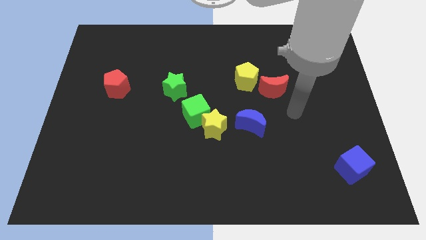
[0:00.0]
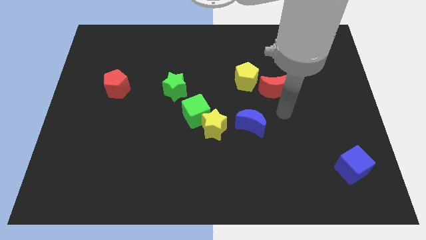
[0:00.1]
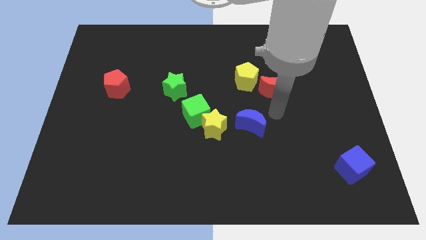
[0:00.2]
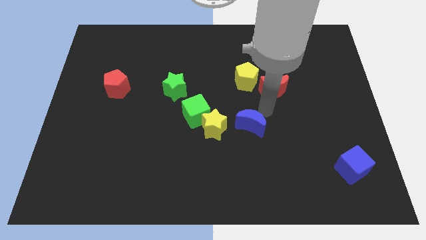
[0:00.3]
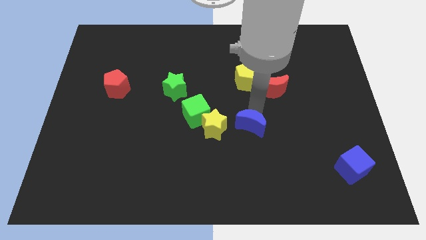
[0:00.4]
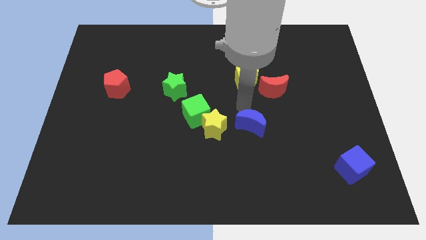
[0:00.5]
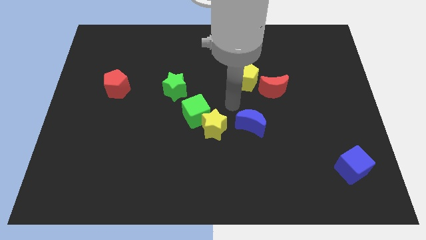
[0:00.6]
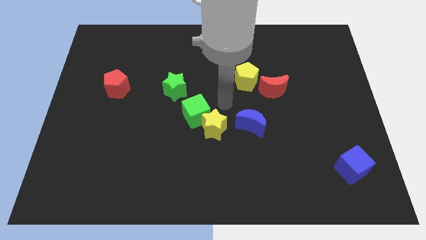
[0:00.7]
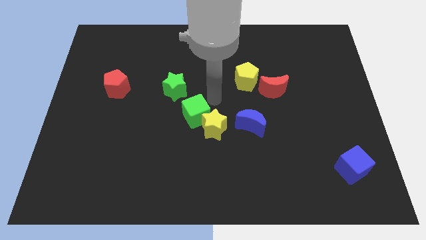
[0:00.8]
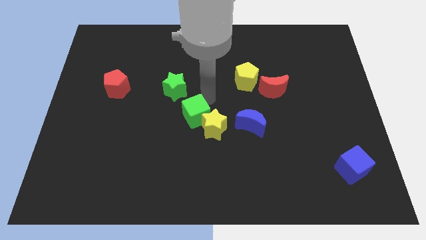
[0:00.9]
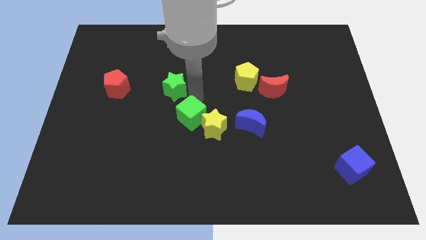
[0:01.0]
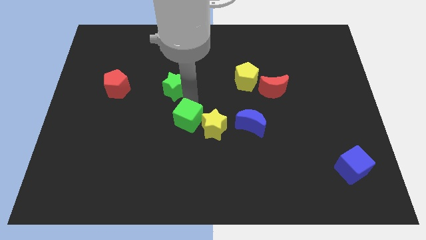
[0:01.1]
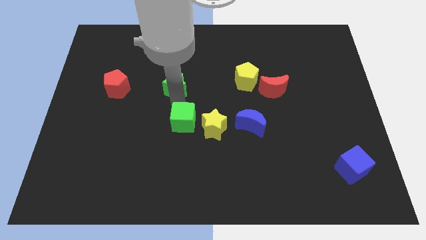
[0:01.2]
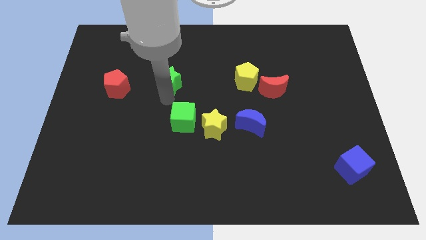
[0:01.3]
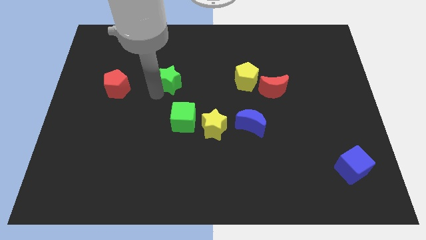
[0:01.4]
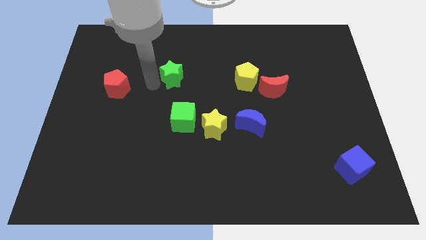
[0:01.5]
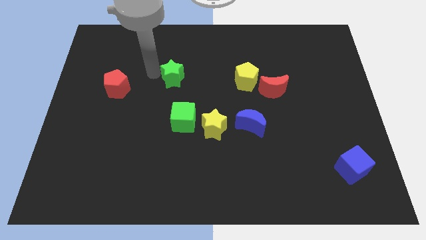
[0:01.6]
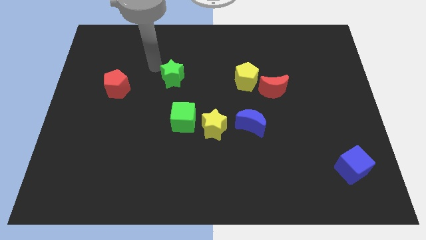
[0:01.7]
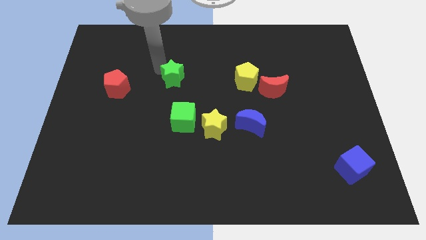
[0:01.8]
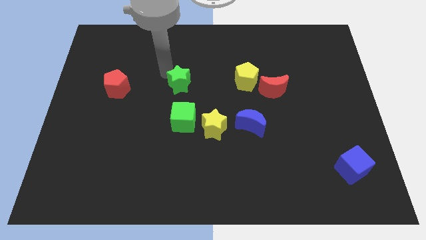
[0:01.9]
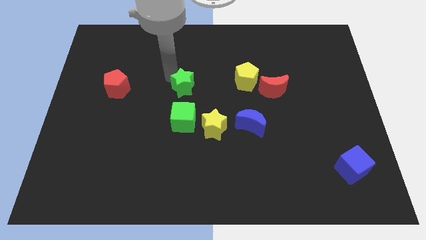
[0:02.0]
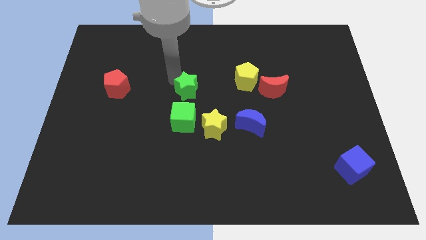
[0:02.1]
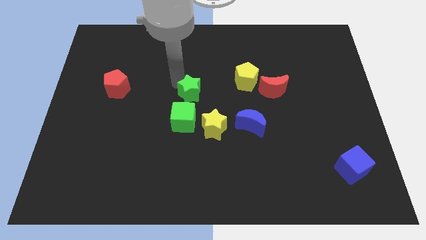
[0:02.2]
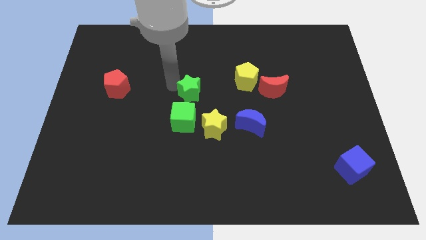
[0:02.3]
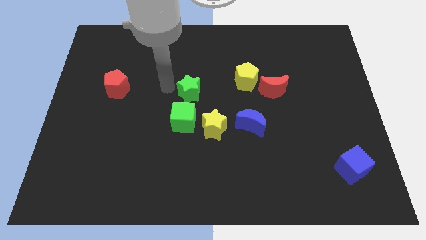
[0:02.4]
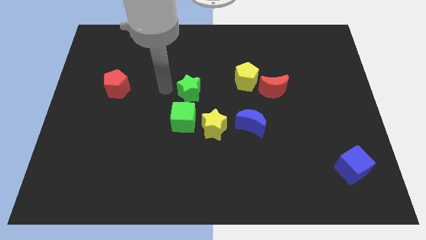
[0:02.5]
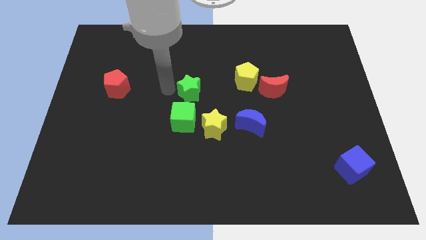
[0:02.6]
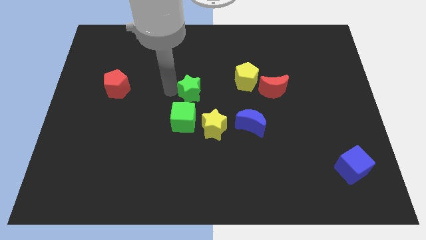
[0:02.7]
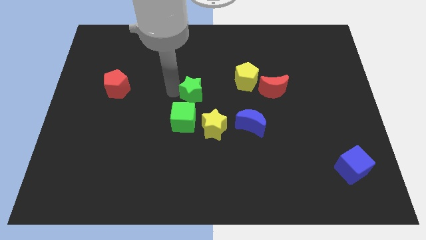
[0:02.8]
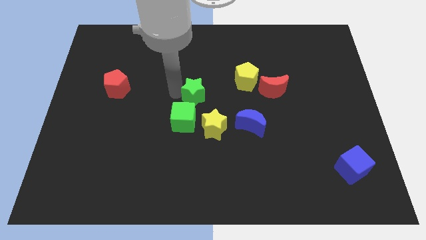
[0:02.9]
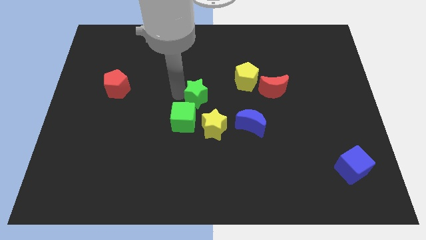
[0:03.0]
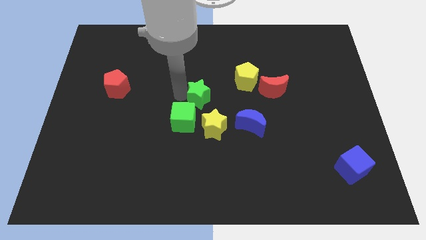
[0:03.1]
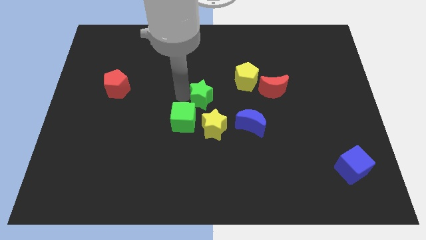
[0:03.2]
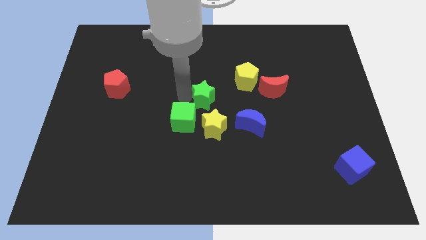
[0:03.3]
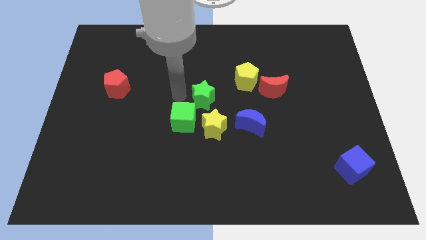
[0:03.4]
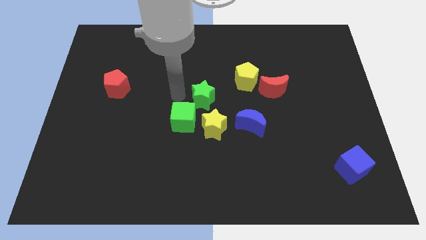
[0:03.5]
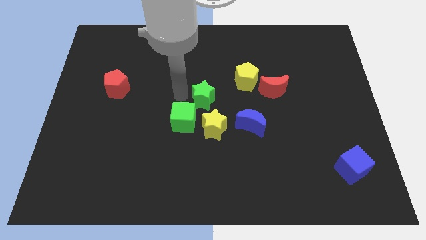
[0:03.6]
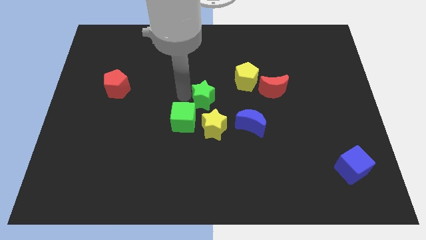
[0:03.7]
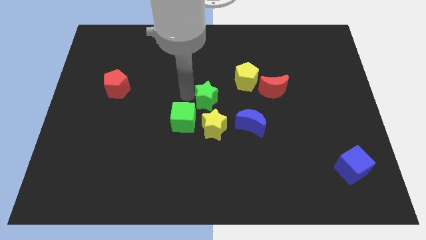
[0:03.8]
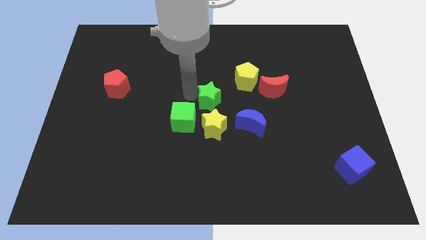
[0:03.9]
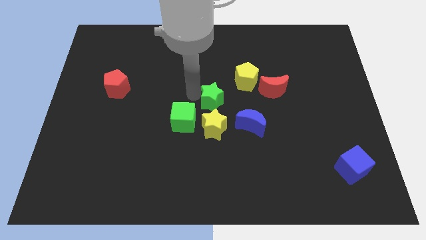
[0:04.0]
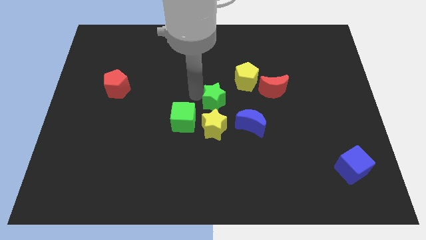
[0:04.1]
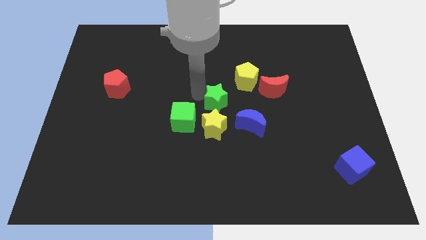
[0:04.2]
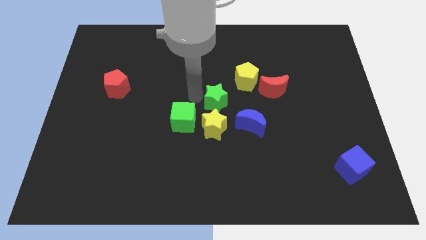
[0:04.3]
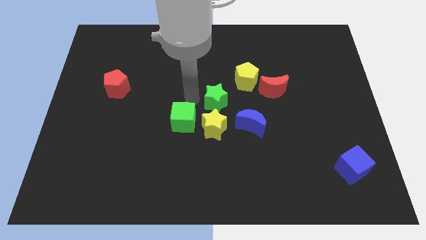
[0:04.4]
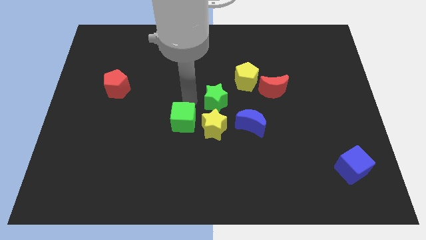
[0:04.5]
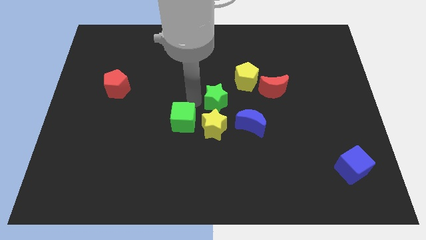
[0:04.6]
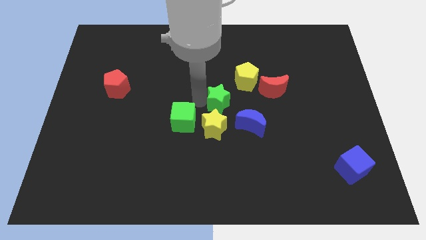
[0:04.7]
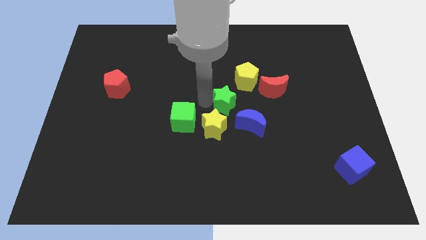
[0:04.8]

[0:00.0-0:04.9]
move the green star to the right of the green cube

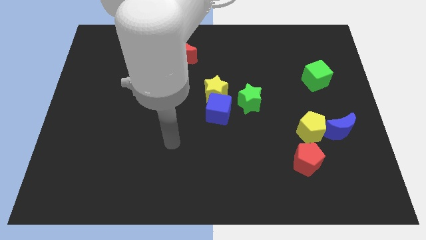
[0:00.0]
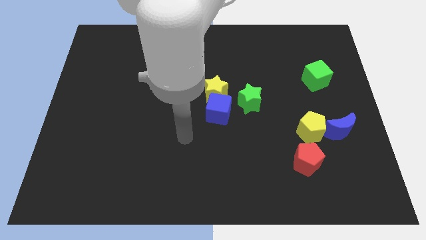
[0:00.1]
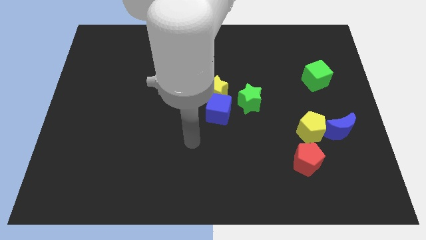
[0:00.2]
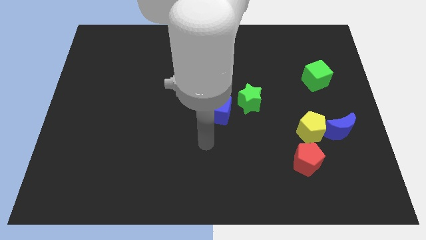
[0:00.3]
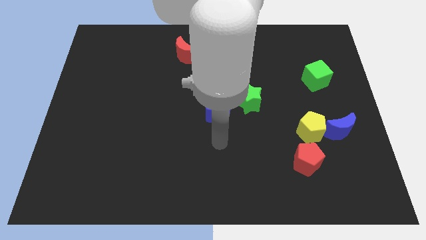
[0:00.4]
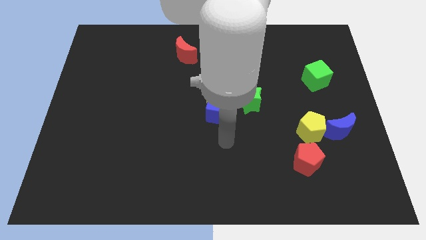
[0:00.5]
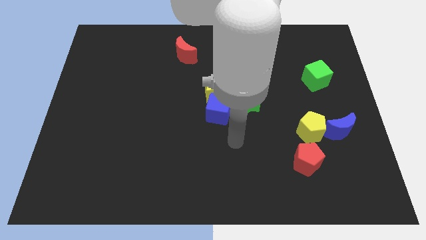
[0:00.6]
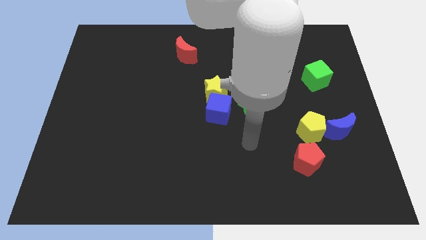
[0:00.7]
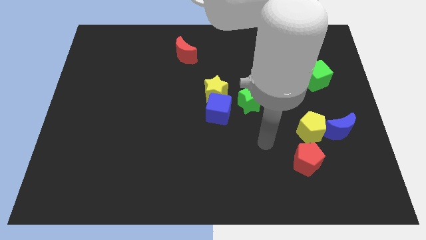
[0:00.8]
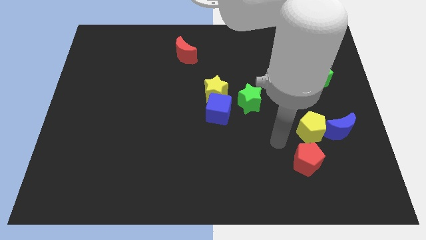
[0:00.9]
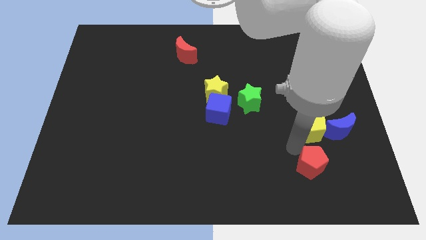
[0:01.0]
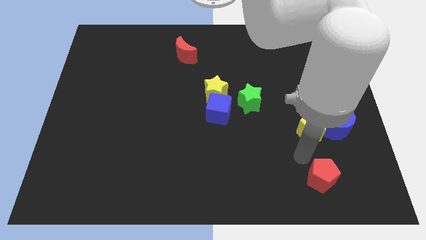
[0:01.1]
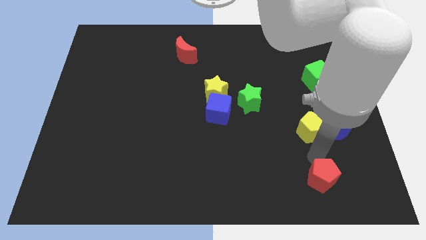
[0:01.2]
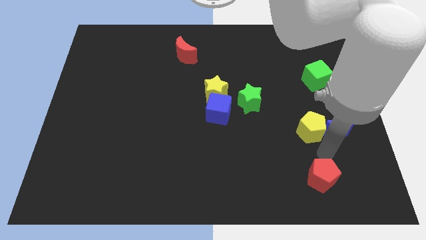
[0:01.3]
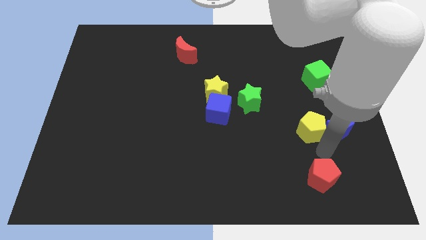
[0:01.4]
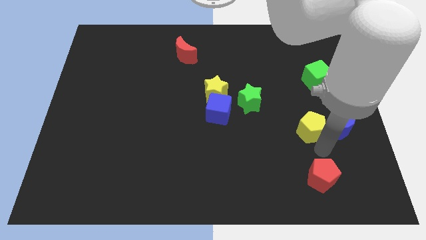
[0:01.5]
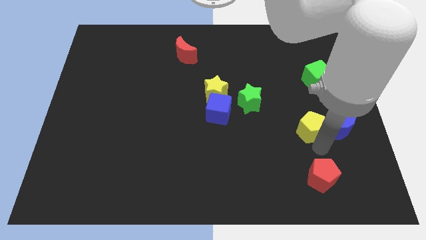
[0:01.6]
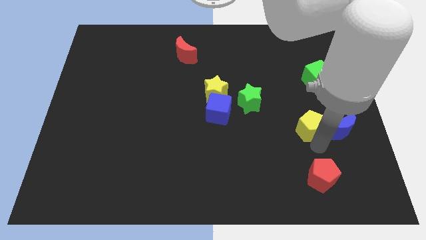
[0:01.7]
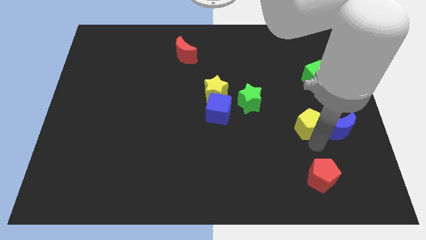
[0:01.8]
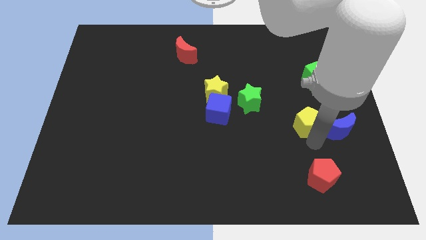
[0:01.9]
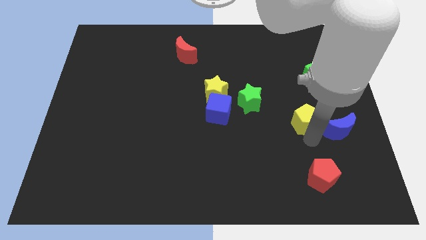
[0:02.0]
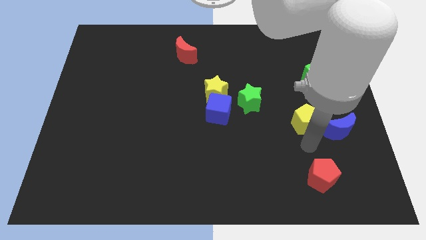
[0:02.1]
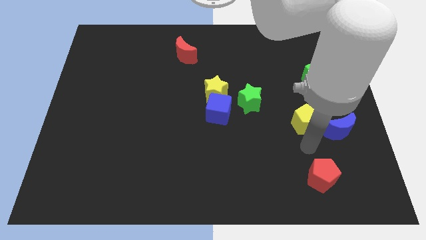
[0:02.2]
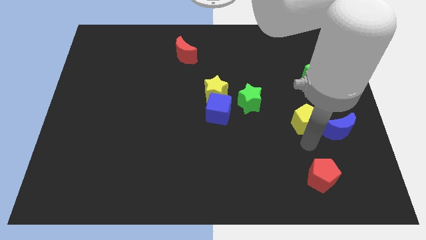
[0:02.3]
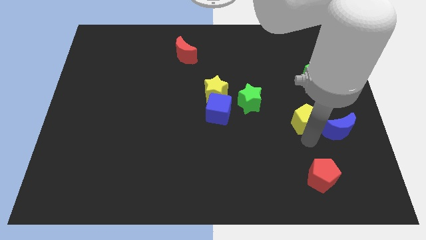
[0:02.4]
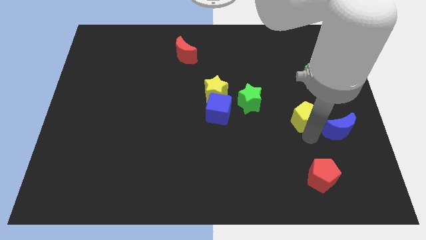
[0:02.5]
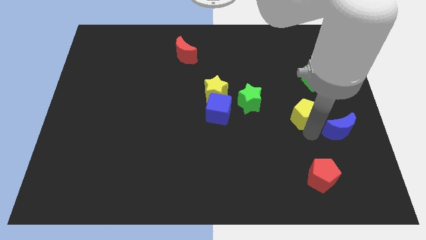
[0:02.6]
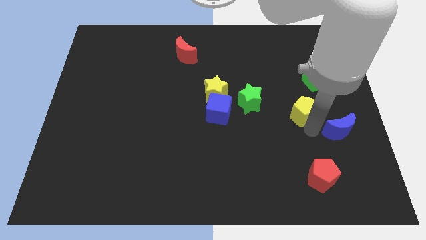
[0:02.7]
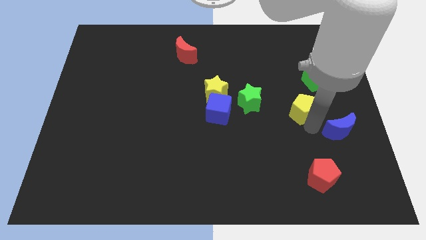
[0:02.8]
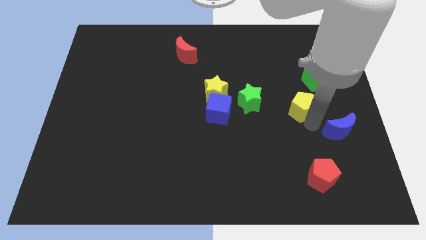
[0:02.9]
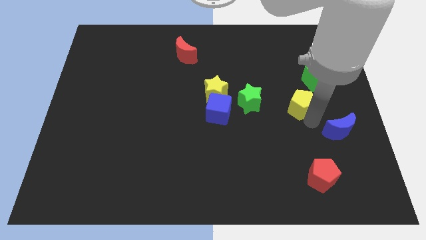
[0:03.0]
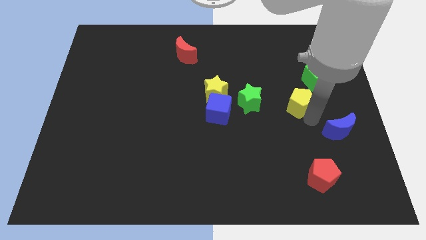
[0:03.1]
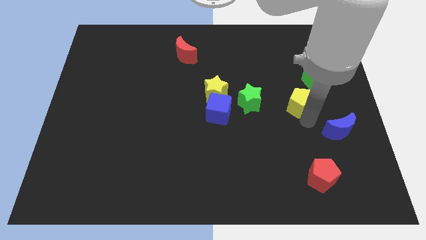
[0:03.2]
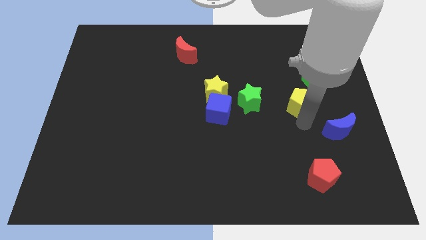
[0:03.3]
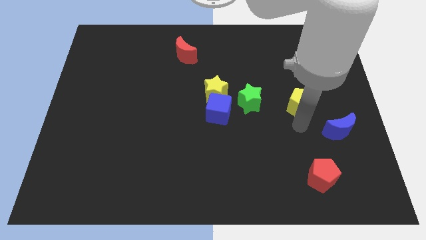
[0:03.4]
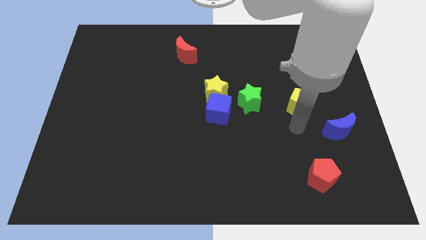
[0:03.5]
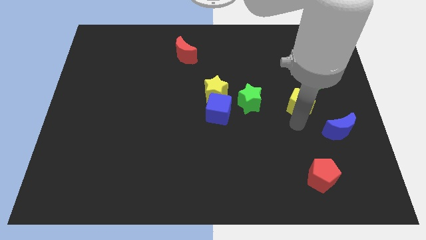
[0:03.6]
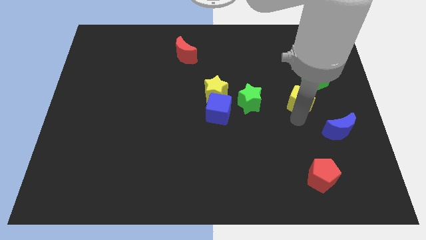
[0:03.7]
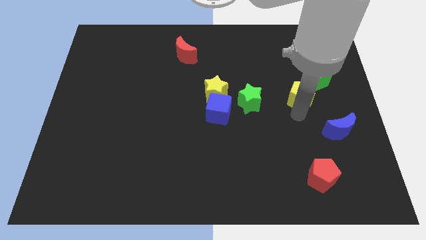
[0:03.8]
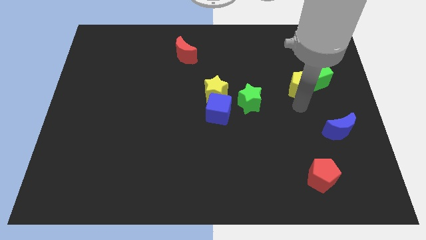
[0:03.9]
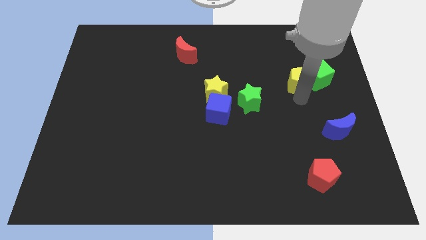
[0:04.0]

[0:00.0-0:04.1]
slide the yellow pentagon to the top left of the green cube
